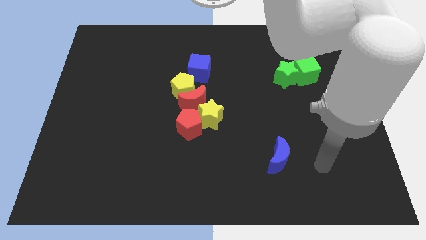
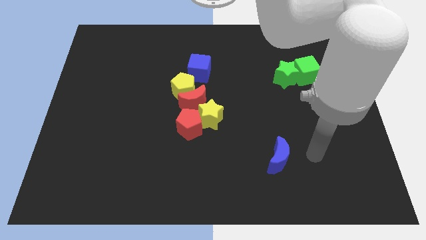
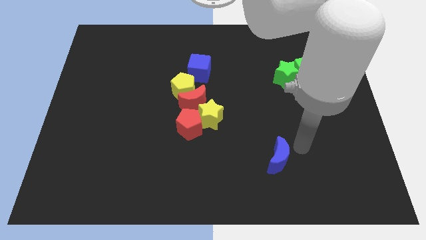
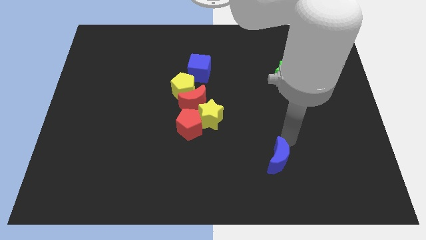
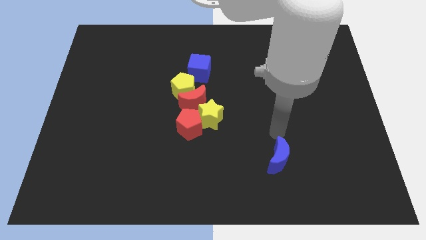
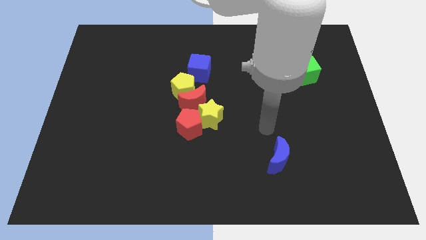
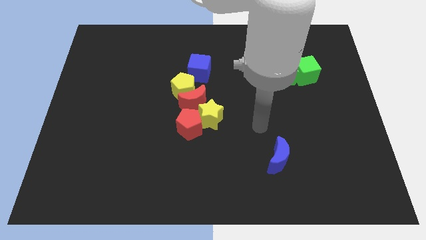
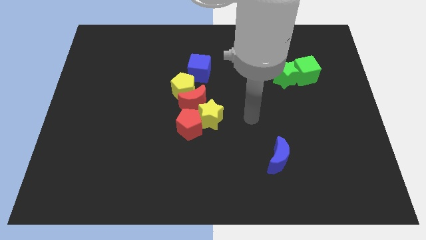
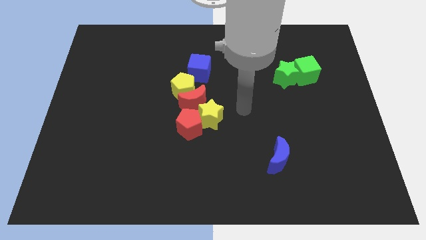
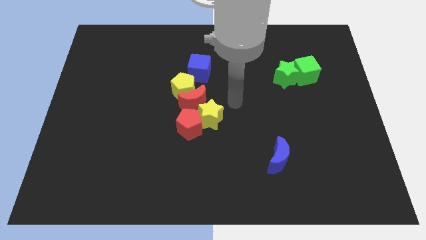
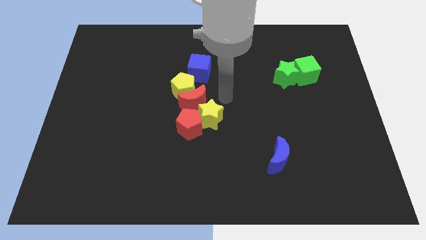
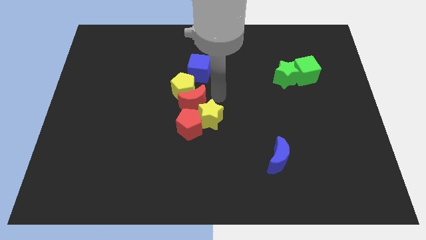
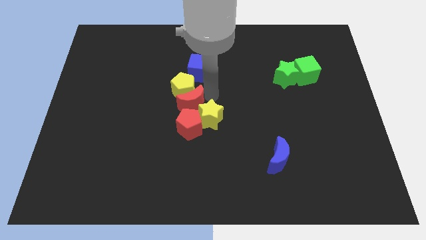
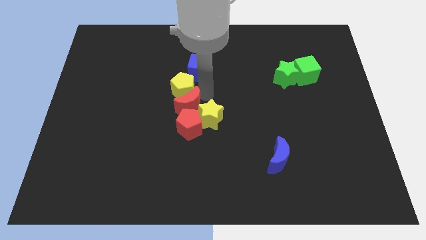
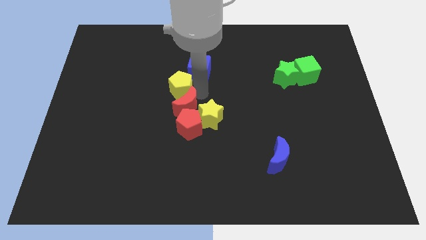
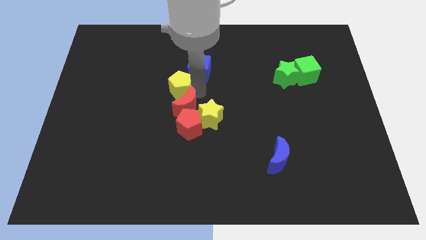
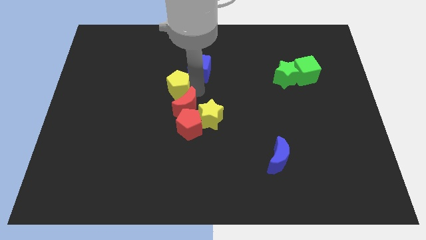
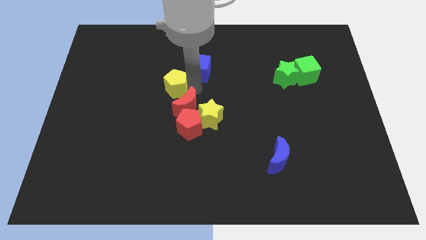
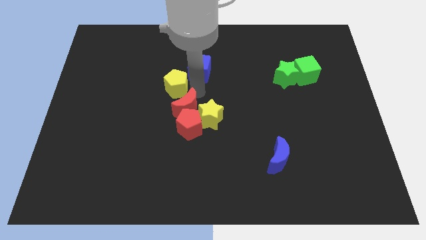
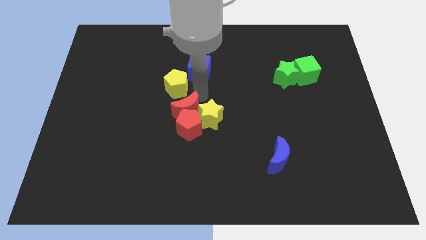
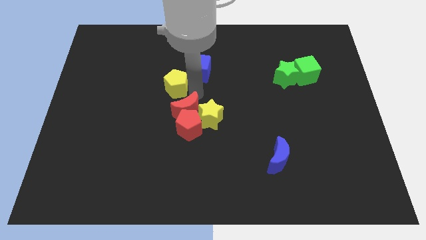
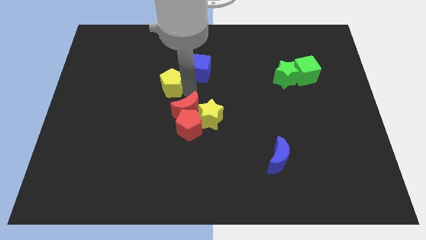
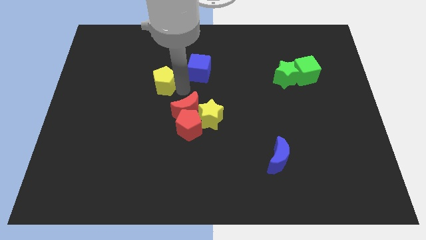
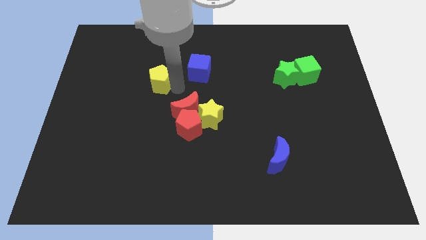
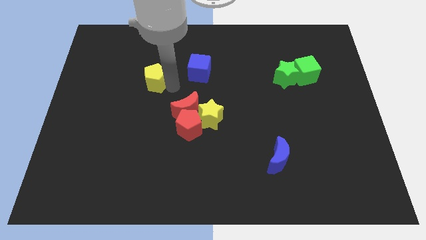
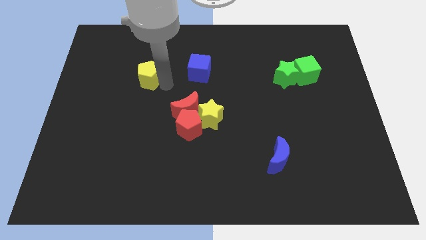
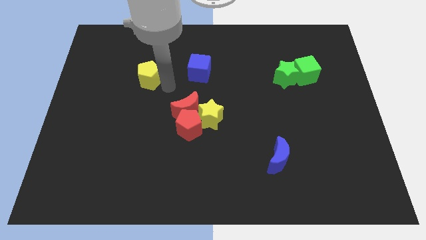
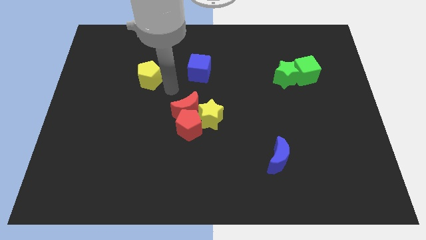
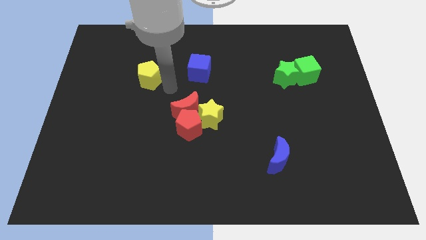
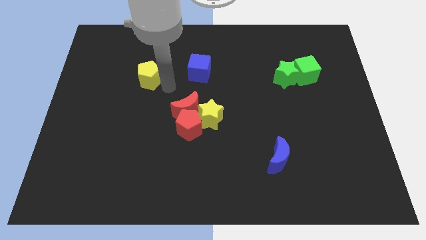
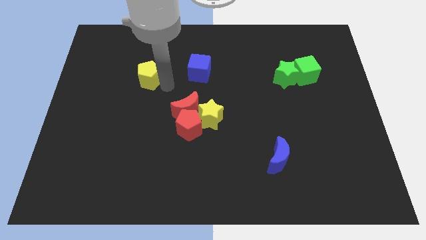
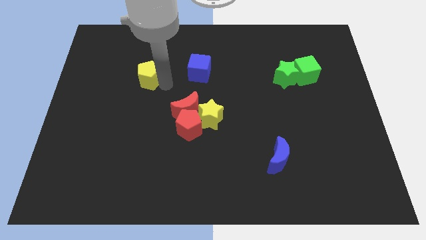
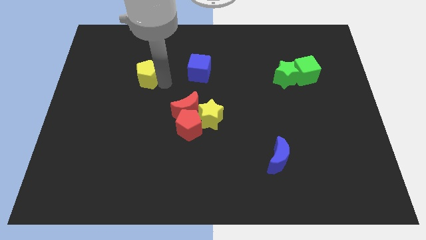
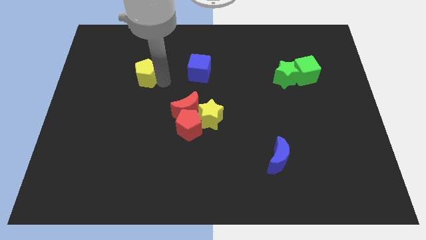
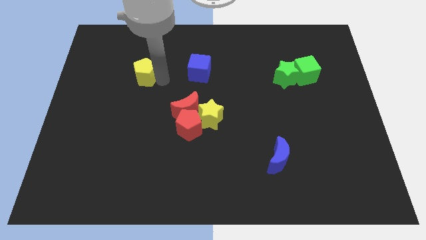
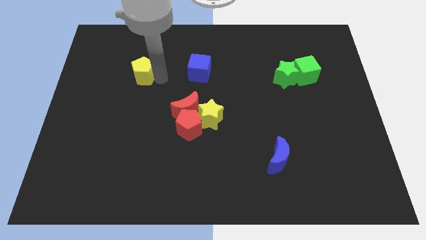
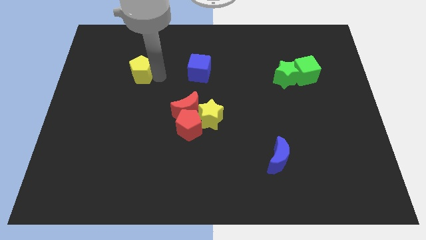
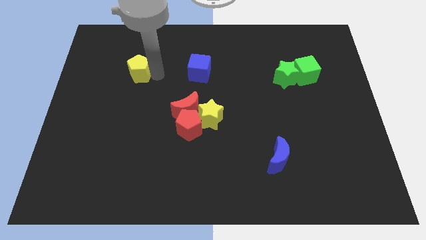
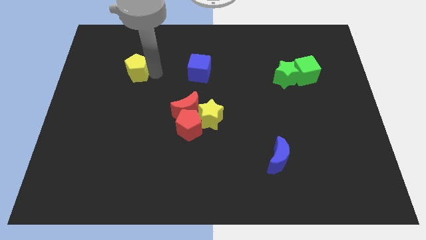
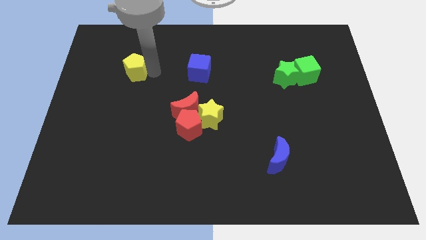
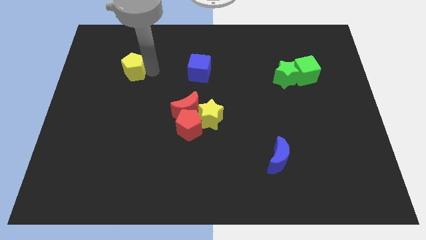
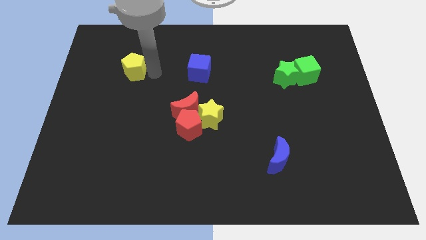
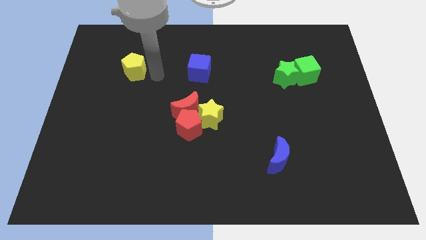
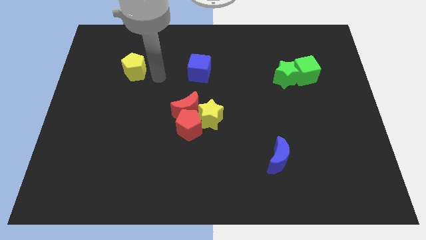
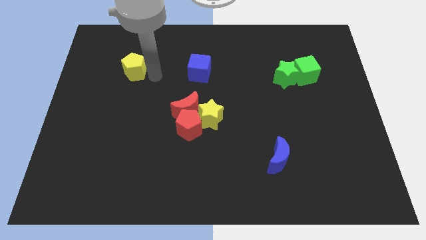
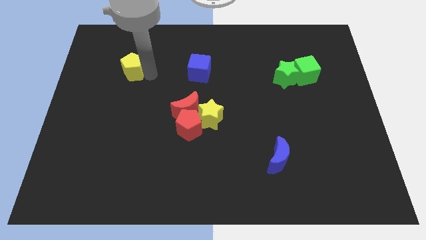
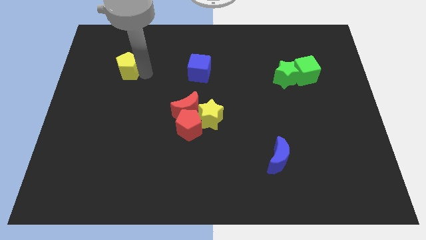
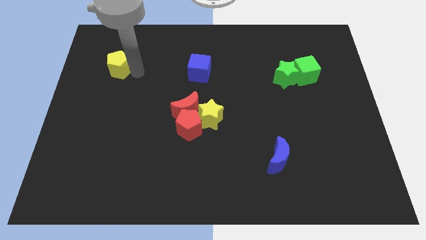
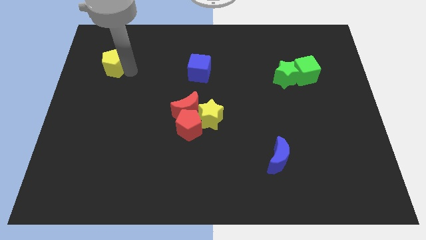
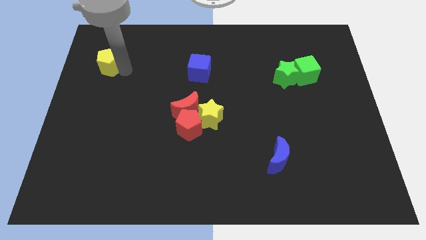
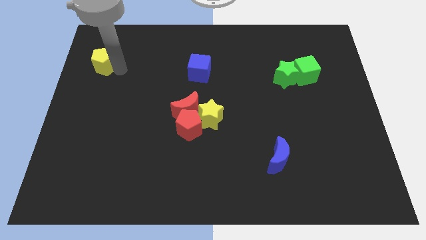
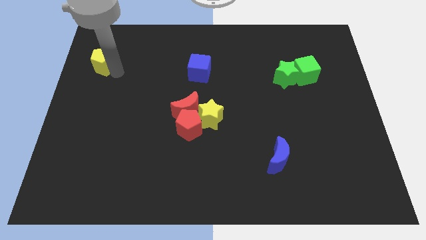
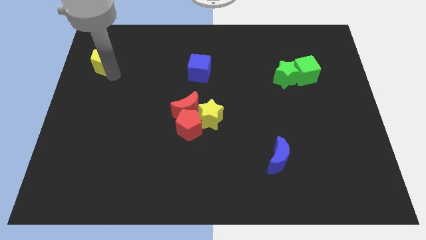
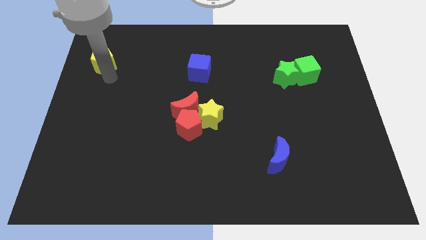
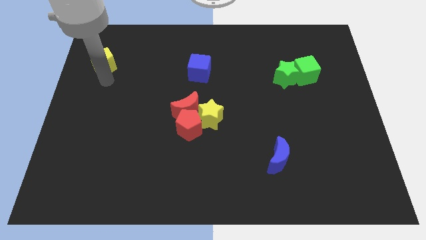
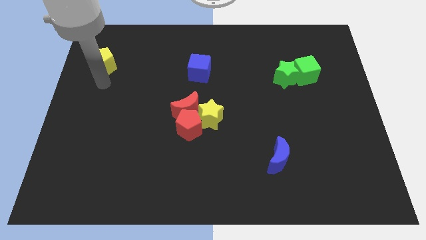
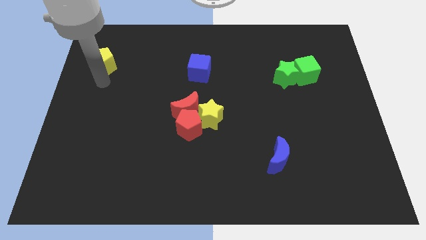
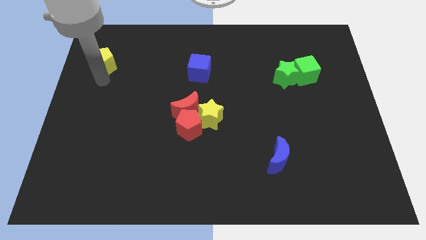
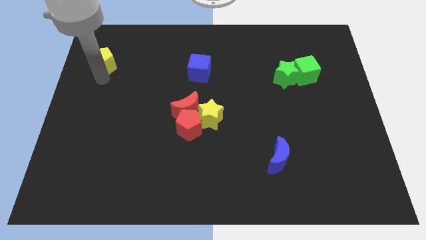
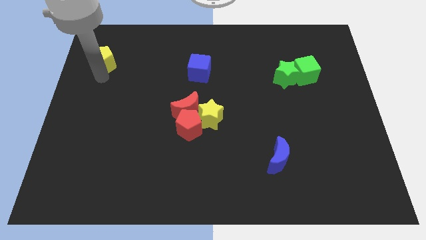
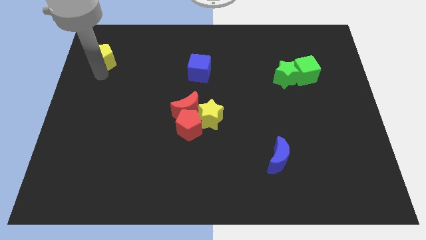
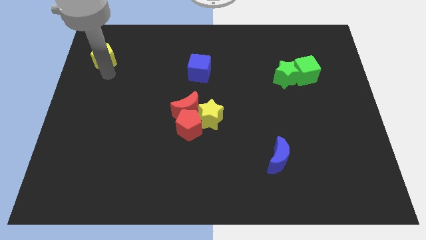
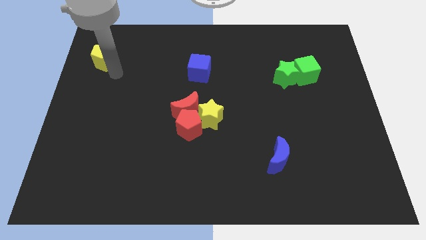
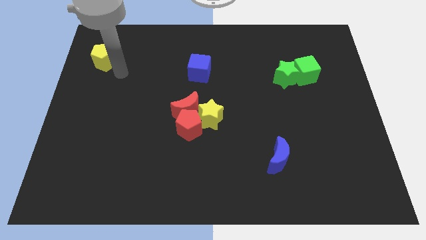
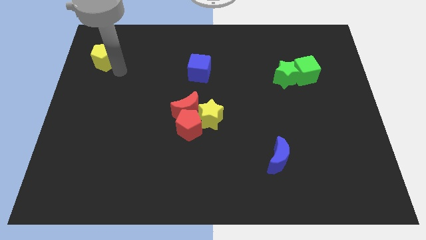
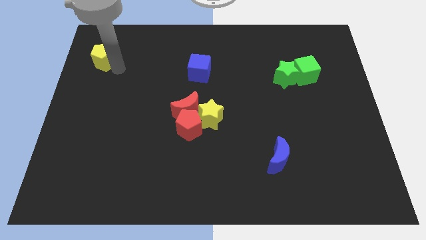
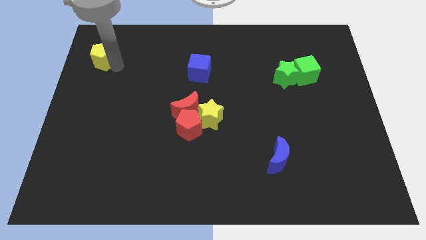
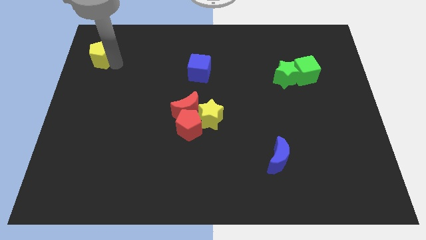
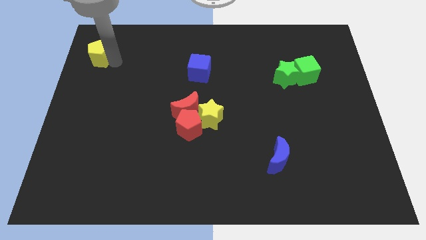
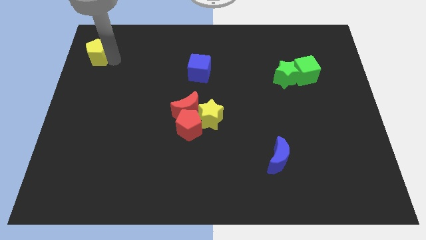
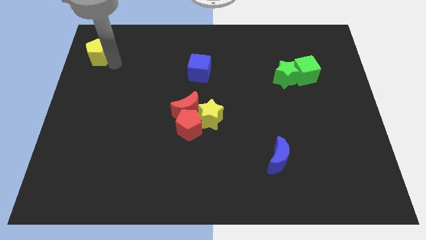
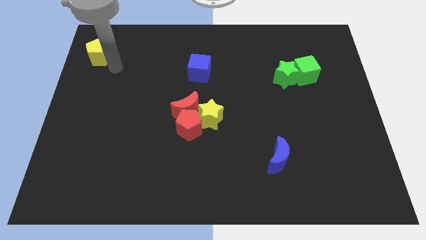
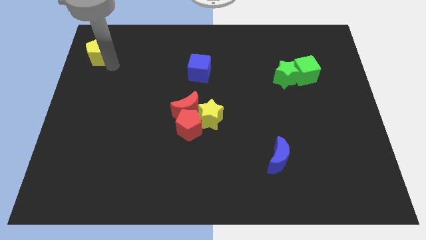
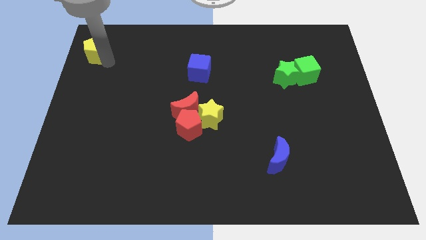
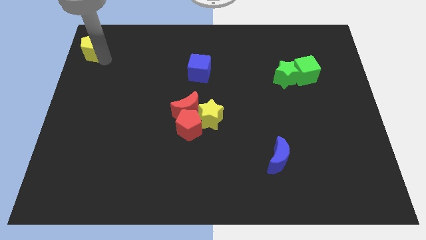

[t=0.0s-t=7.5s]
push the yellow pentagon to the top left of the board
